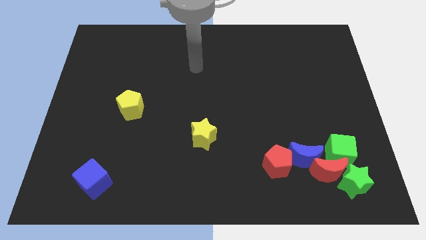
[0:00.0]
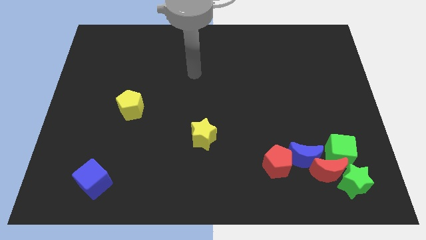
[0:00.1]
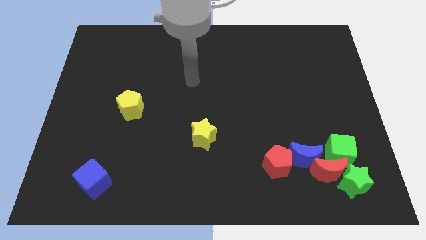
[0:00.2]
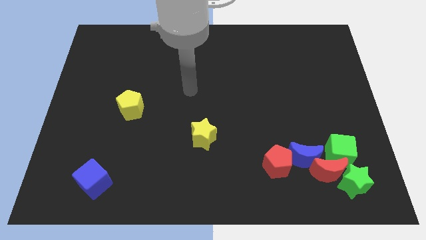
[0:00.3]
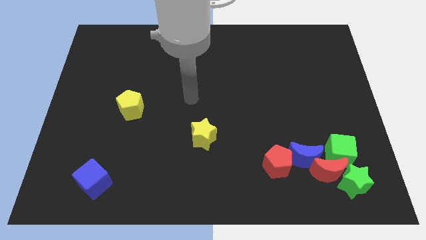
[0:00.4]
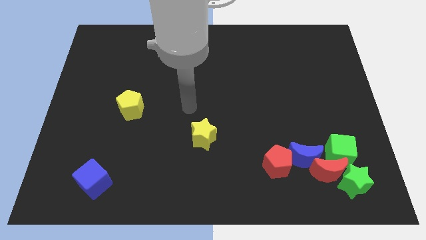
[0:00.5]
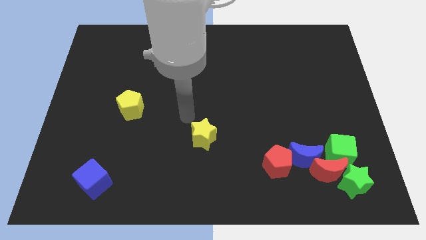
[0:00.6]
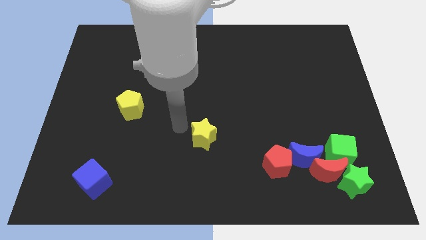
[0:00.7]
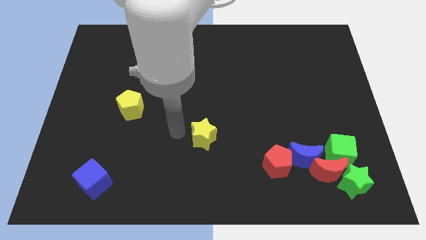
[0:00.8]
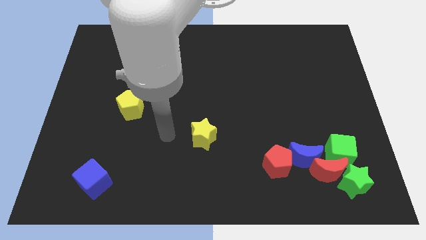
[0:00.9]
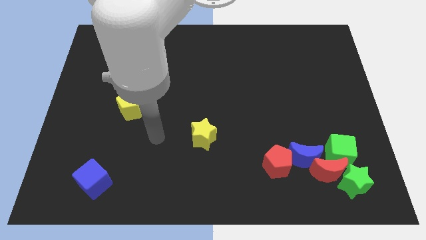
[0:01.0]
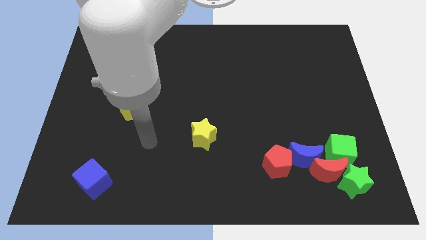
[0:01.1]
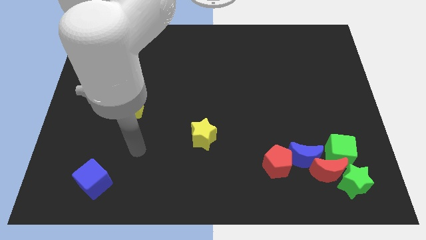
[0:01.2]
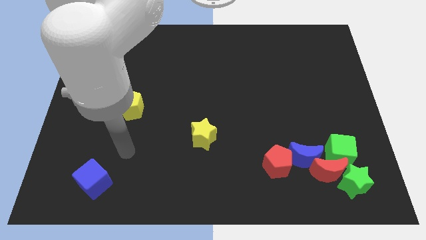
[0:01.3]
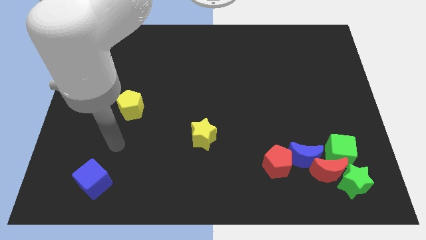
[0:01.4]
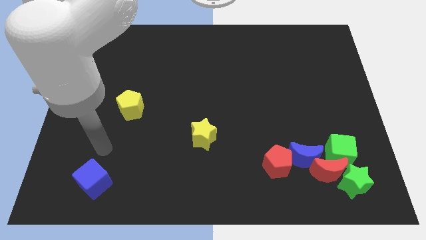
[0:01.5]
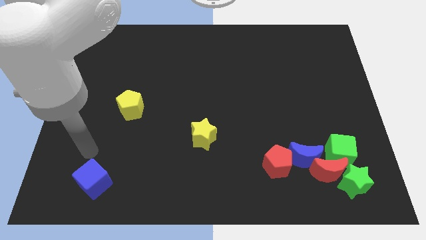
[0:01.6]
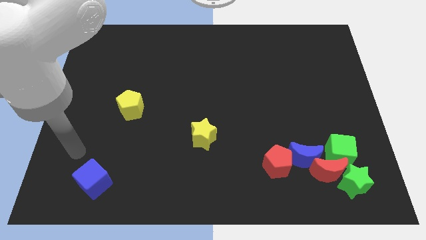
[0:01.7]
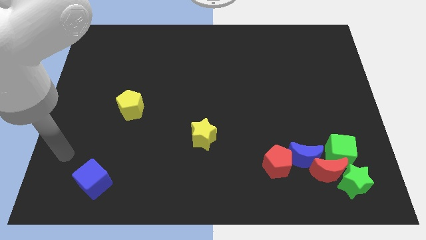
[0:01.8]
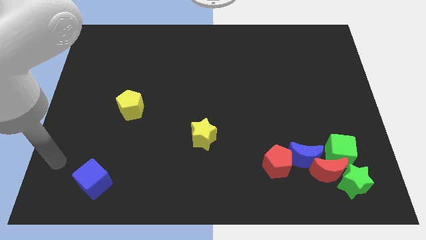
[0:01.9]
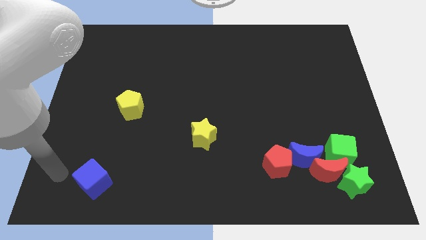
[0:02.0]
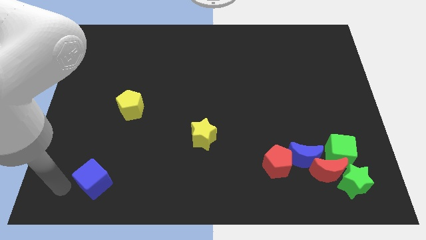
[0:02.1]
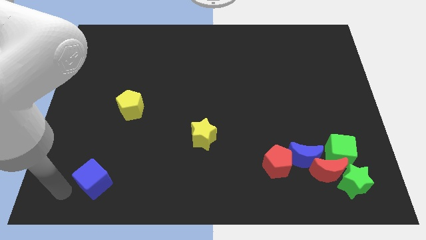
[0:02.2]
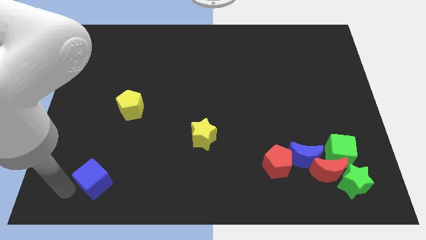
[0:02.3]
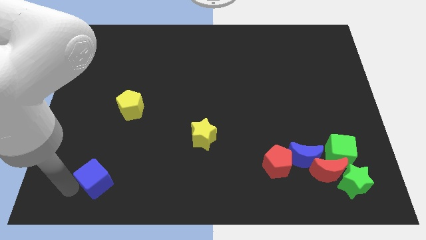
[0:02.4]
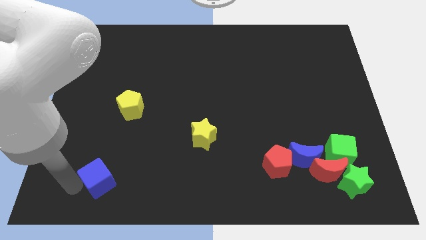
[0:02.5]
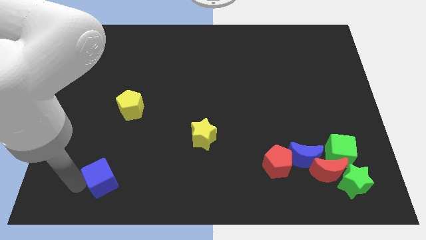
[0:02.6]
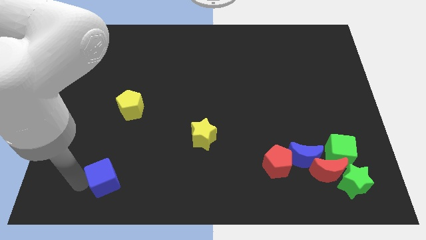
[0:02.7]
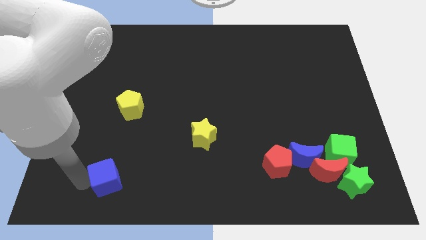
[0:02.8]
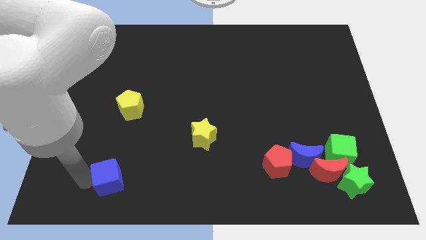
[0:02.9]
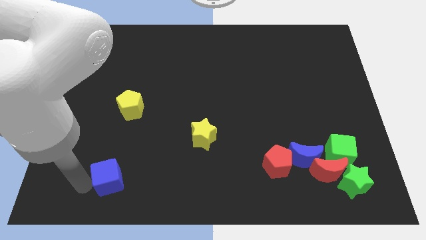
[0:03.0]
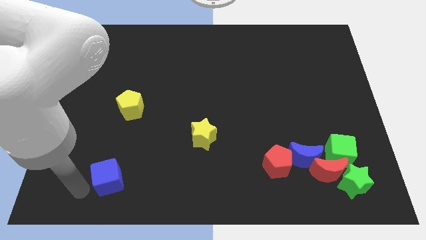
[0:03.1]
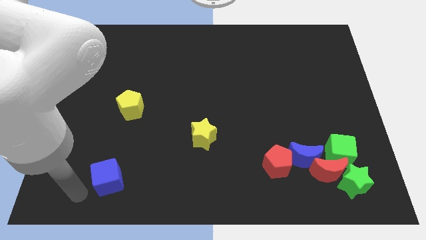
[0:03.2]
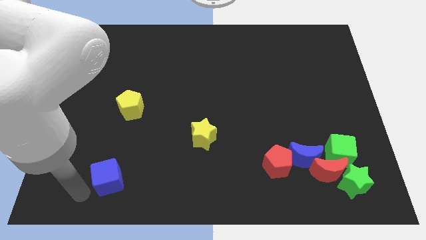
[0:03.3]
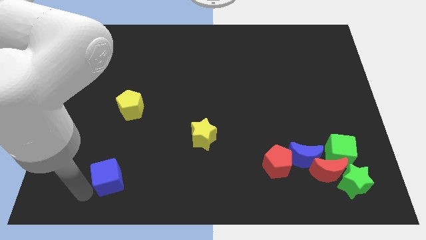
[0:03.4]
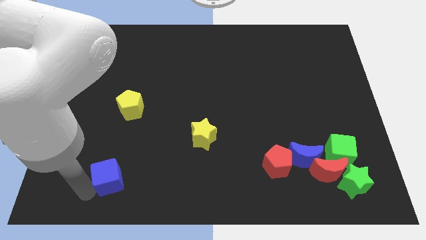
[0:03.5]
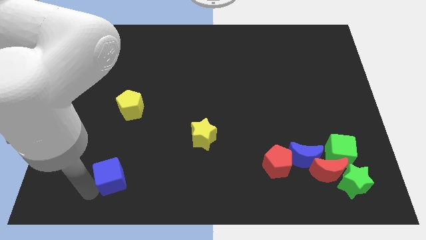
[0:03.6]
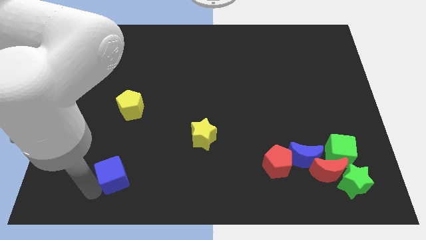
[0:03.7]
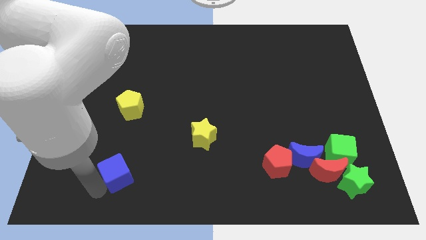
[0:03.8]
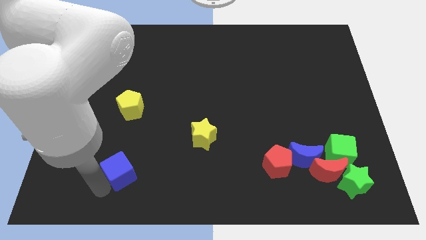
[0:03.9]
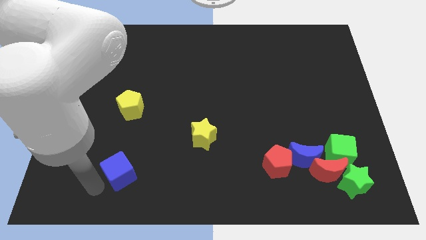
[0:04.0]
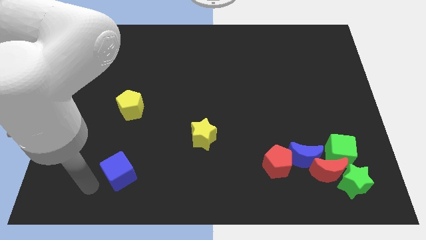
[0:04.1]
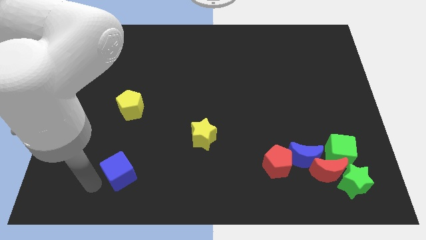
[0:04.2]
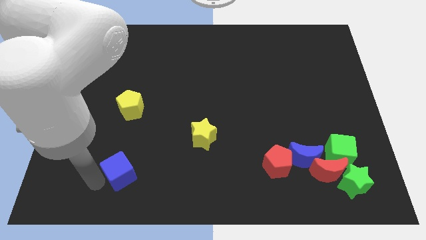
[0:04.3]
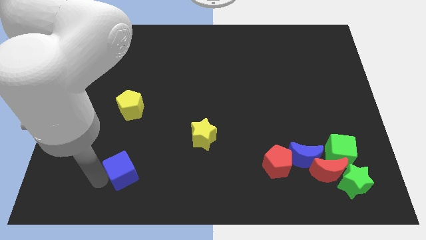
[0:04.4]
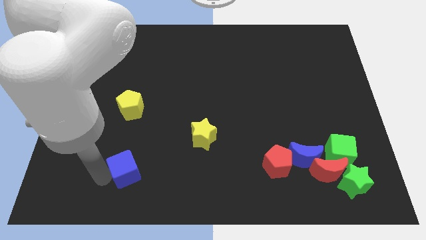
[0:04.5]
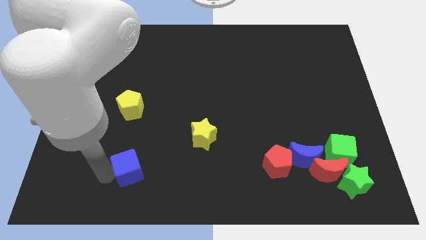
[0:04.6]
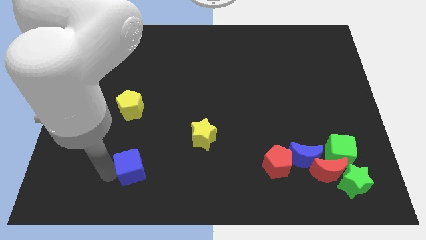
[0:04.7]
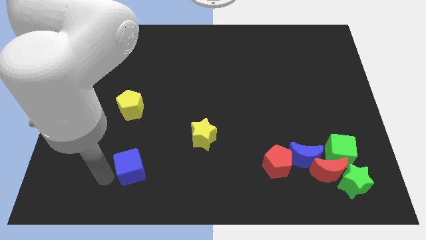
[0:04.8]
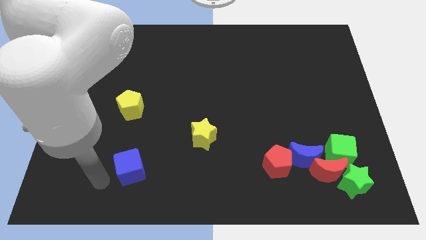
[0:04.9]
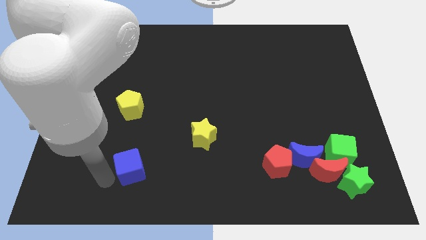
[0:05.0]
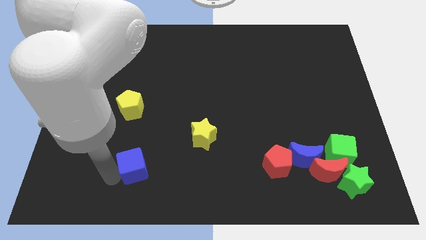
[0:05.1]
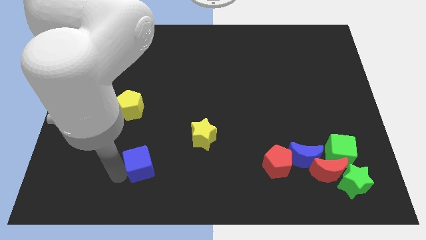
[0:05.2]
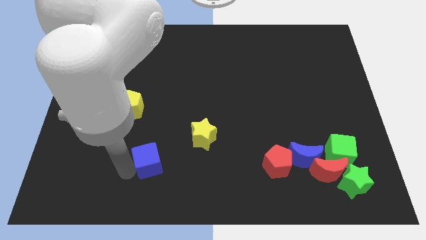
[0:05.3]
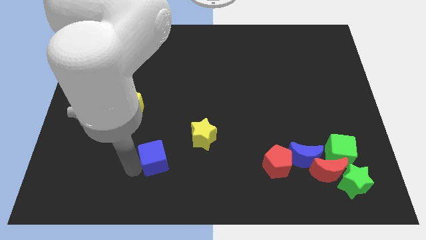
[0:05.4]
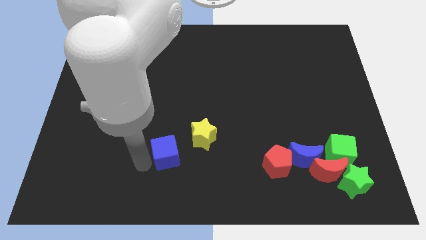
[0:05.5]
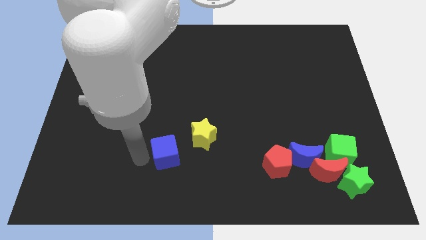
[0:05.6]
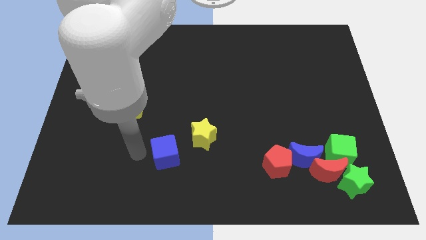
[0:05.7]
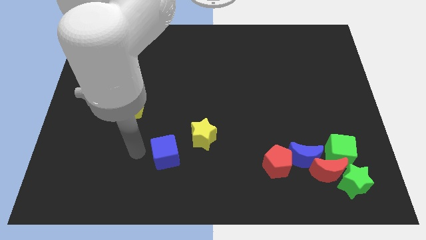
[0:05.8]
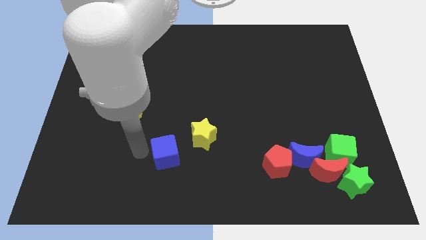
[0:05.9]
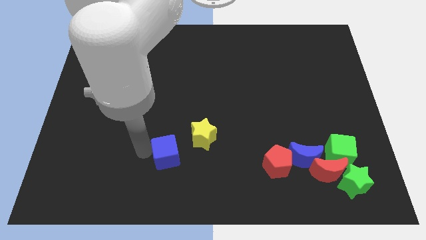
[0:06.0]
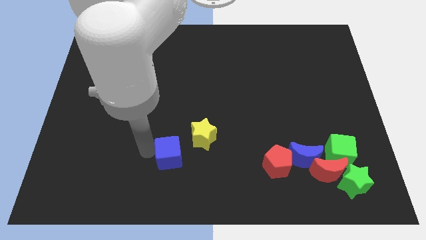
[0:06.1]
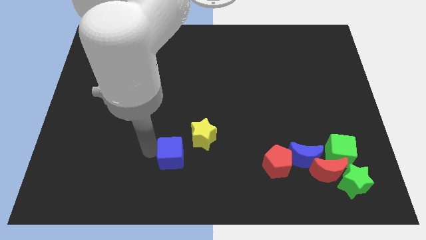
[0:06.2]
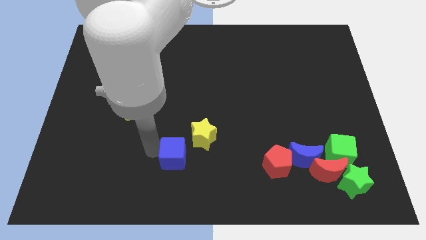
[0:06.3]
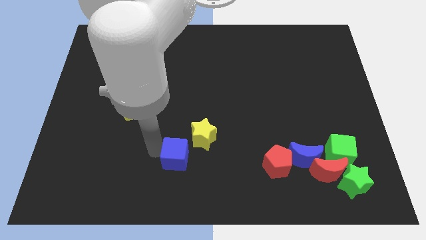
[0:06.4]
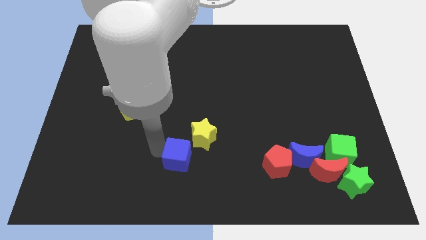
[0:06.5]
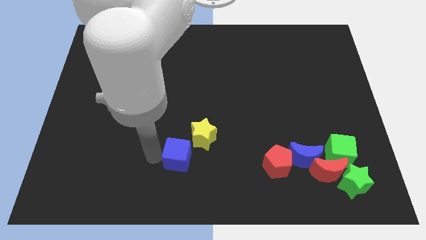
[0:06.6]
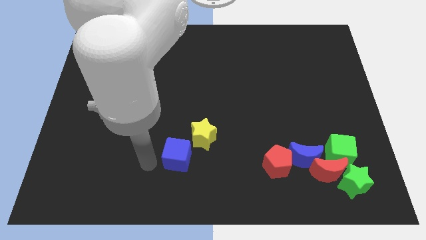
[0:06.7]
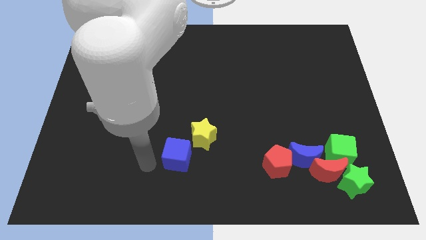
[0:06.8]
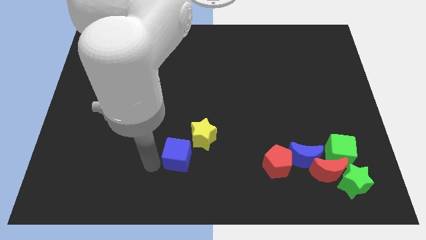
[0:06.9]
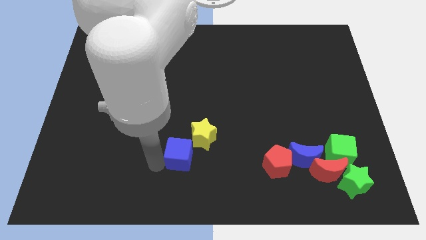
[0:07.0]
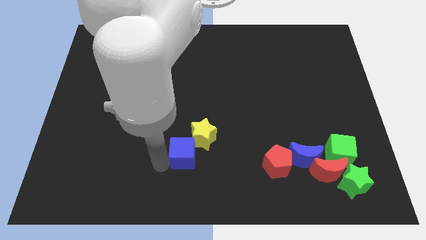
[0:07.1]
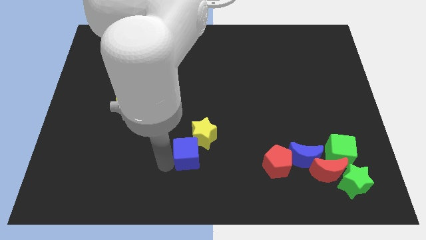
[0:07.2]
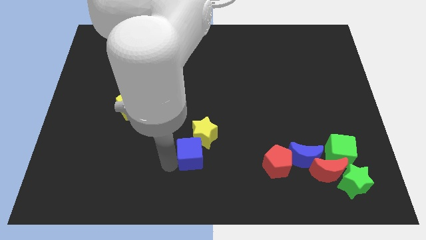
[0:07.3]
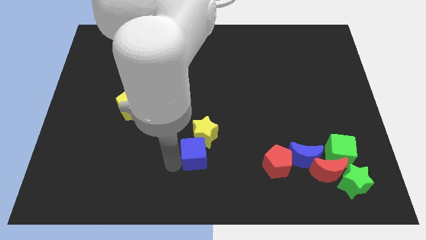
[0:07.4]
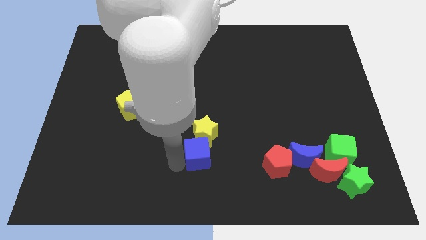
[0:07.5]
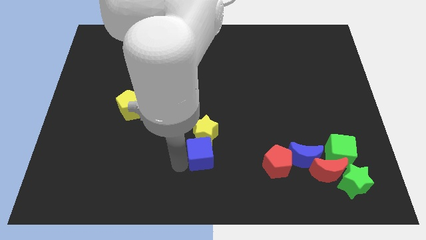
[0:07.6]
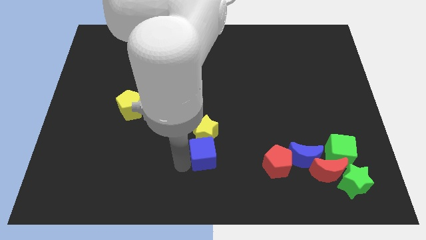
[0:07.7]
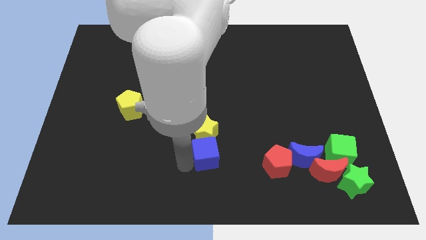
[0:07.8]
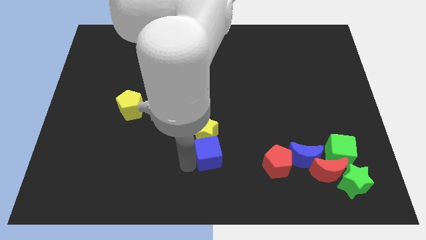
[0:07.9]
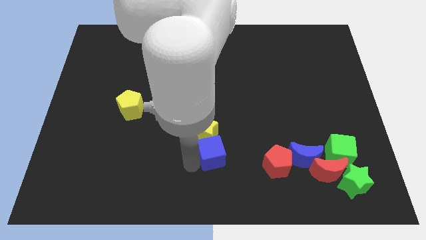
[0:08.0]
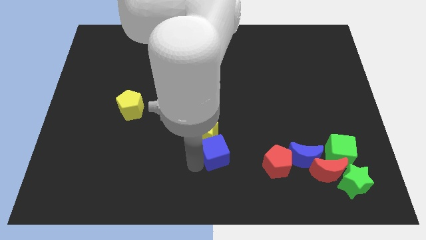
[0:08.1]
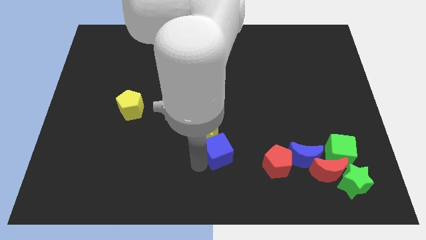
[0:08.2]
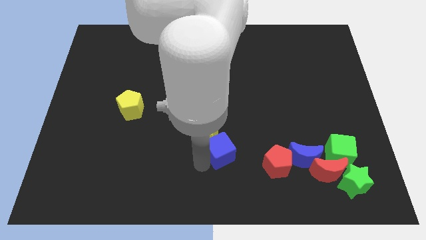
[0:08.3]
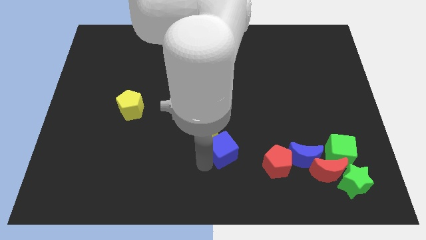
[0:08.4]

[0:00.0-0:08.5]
put the blue cube right of the yellow star

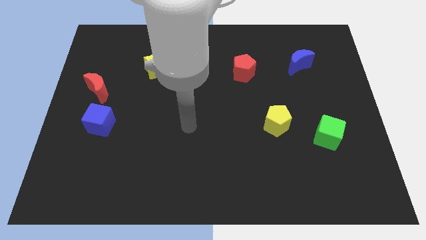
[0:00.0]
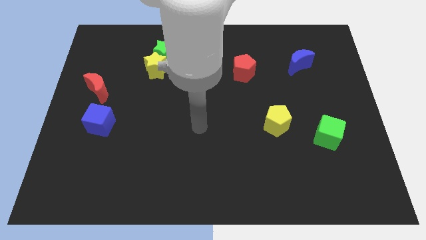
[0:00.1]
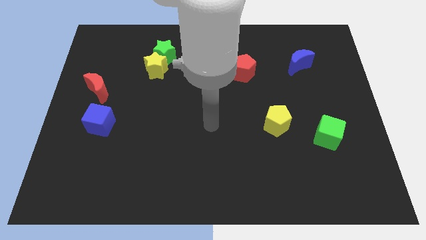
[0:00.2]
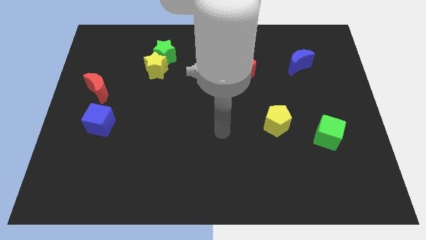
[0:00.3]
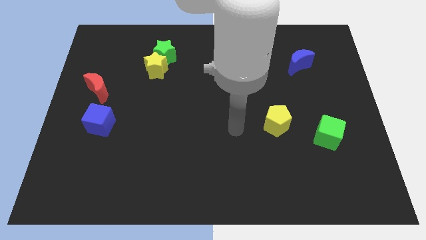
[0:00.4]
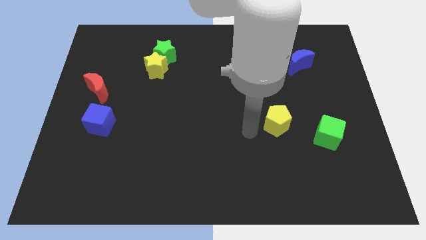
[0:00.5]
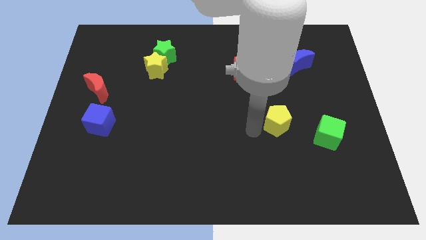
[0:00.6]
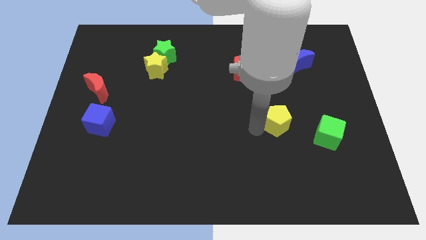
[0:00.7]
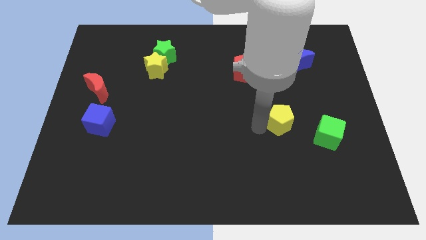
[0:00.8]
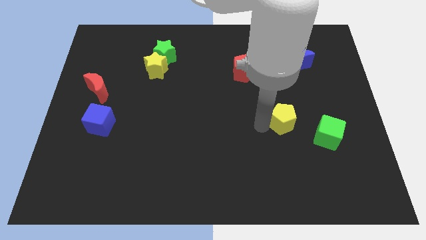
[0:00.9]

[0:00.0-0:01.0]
move the yellow pentagon diagonally up and to the left of the green cube
